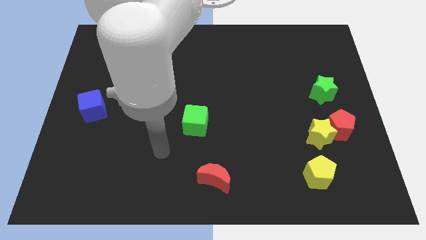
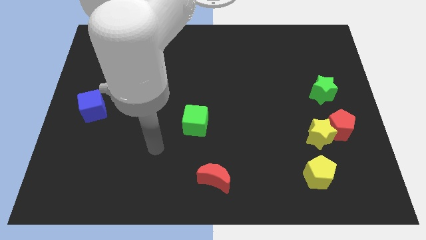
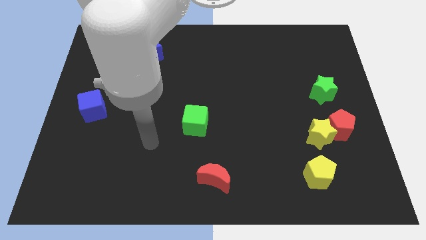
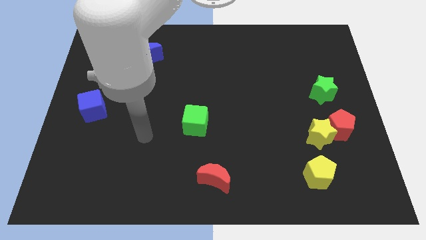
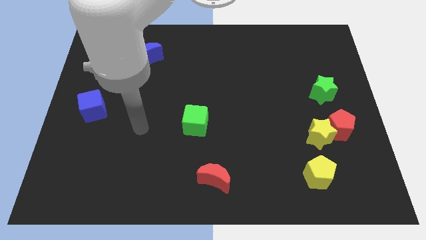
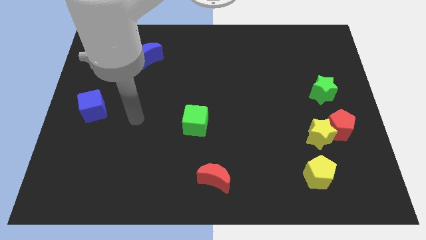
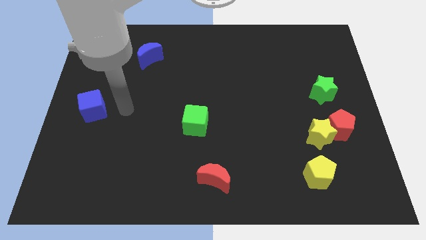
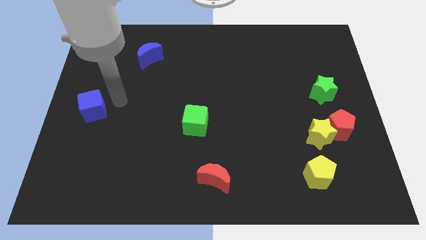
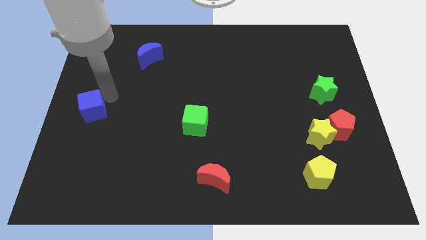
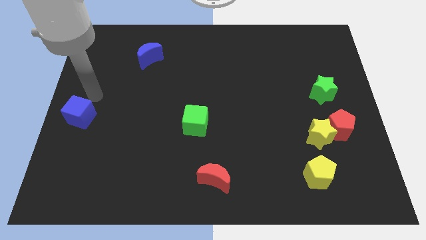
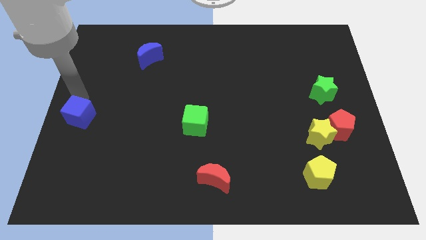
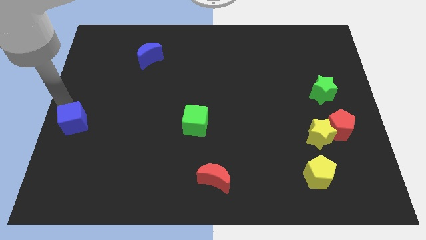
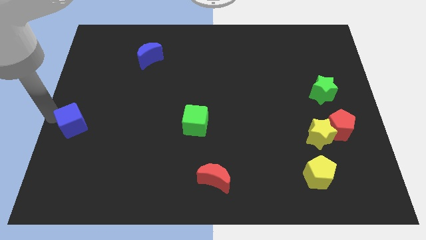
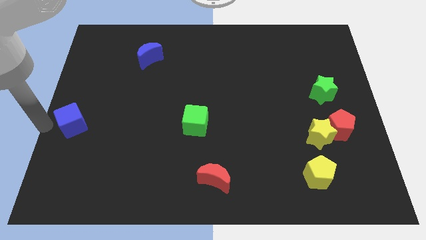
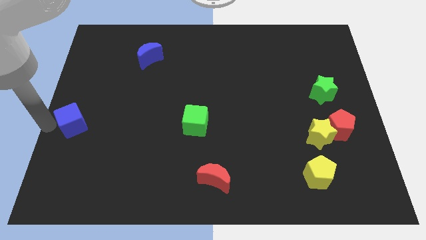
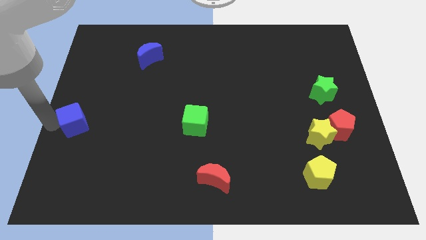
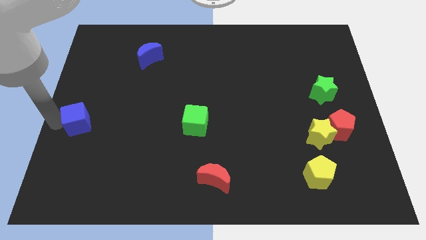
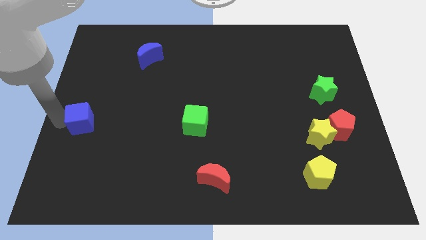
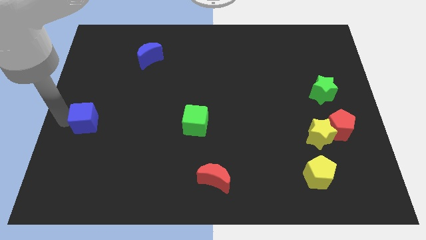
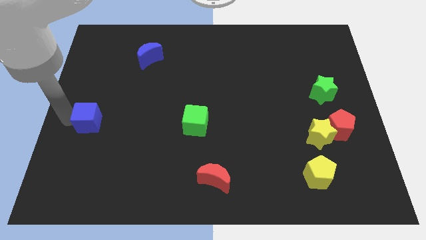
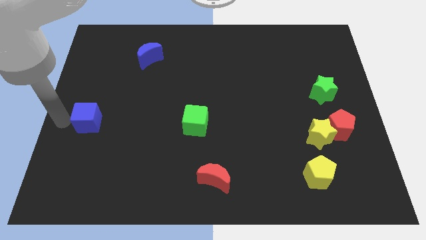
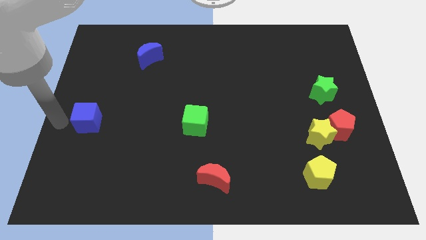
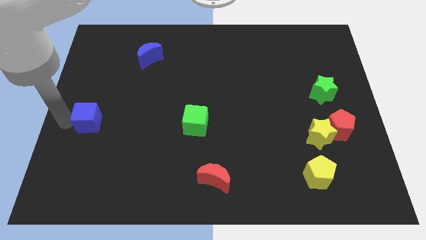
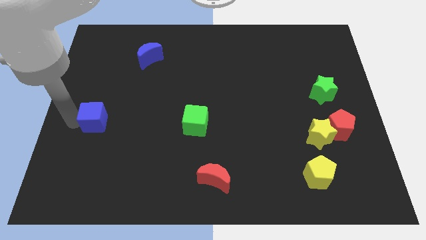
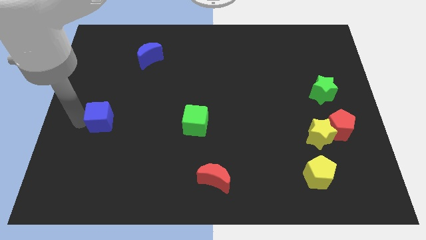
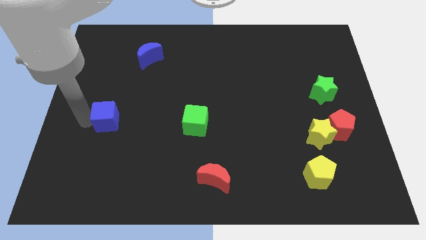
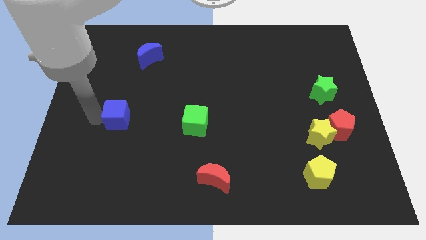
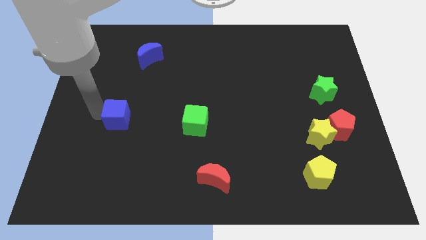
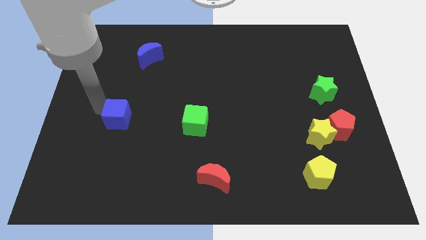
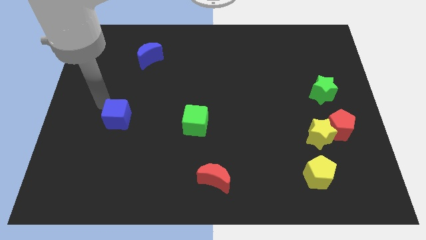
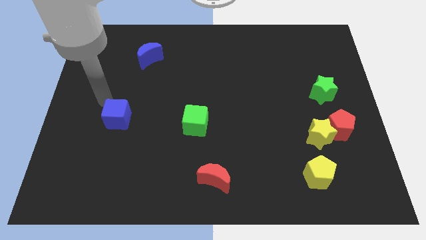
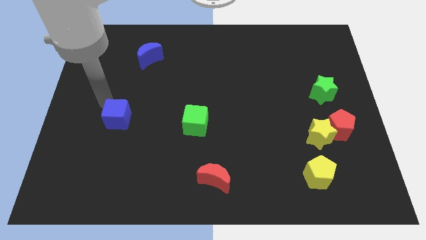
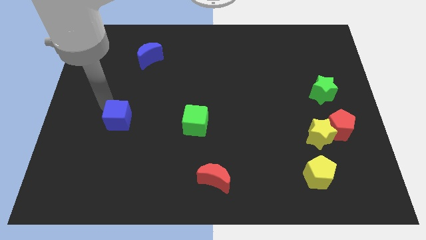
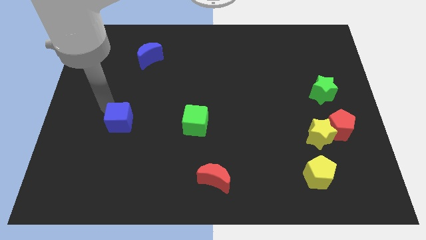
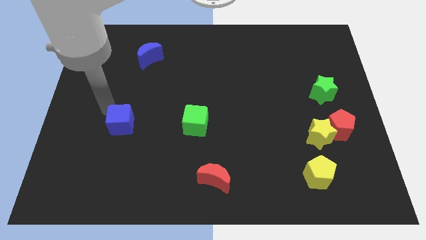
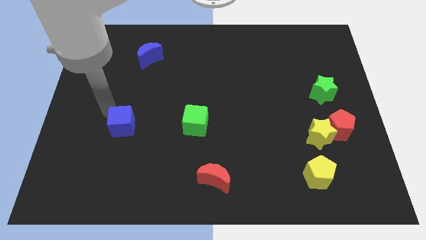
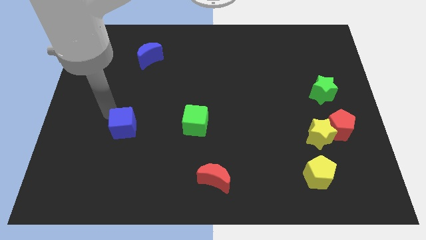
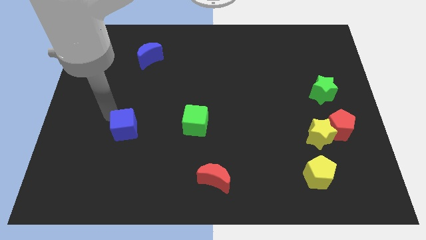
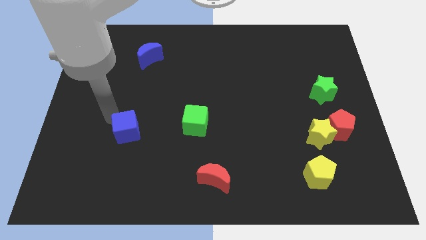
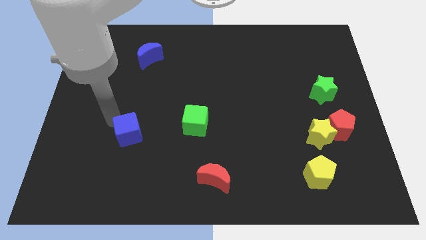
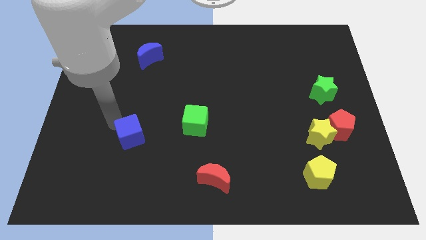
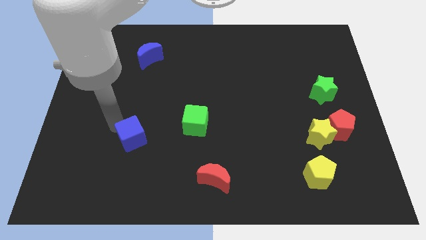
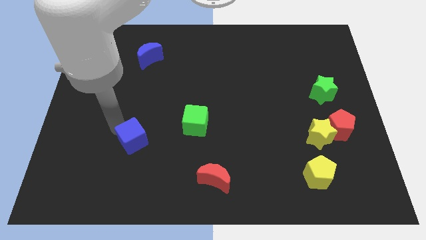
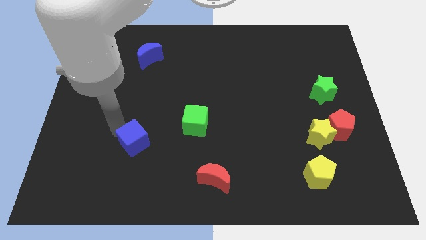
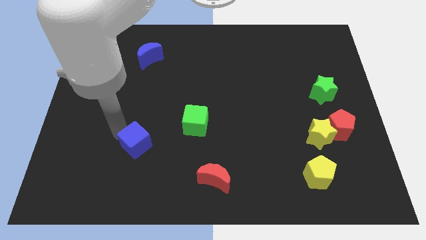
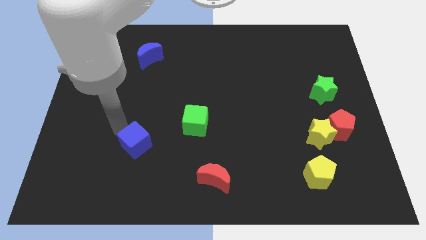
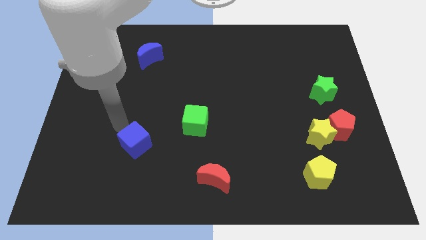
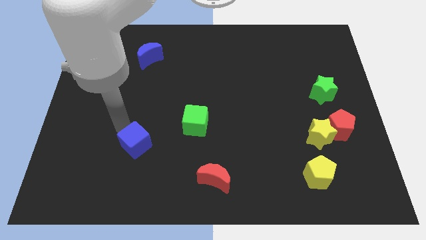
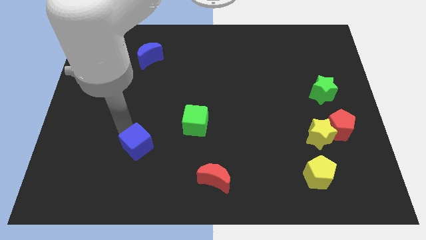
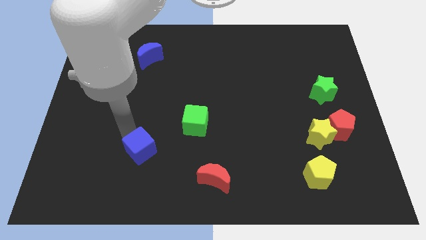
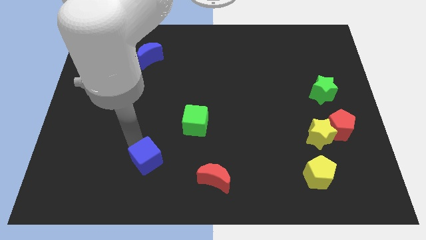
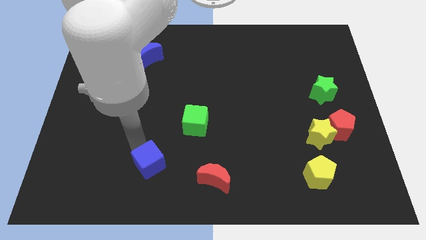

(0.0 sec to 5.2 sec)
put the blue cube to the left side of the red moon

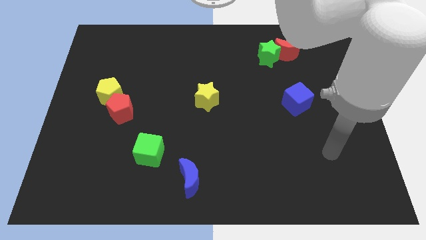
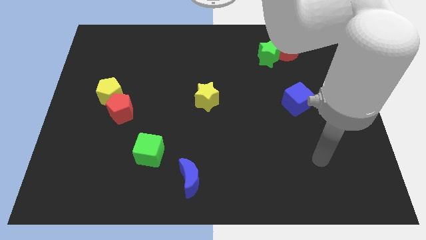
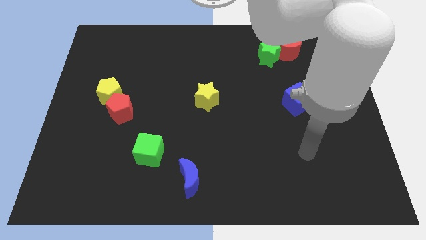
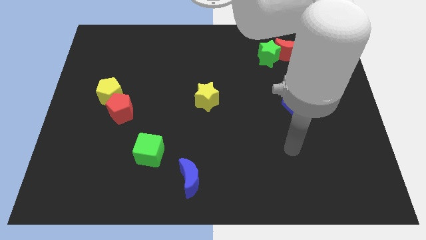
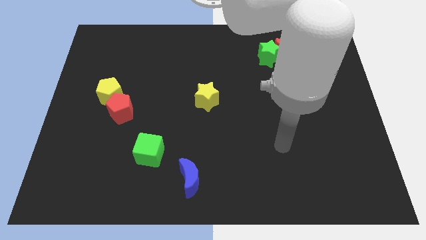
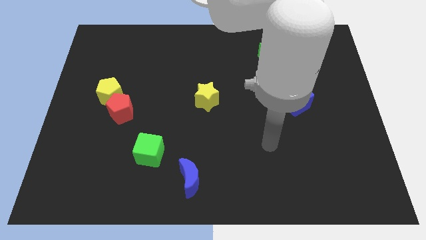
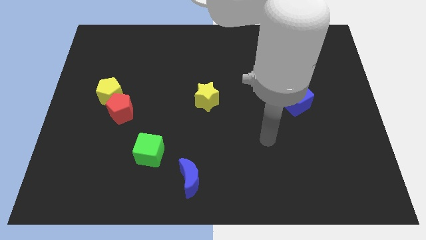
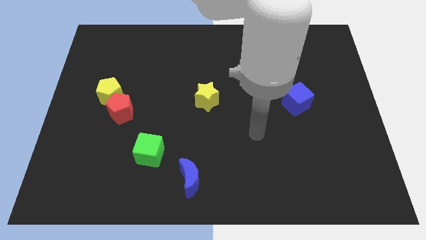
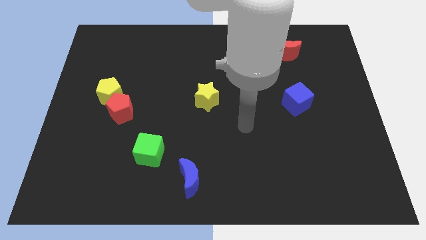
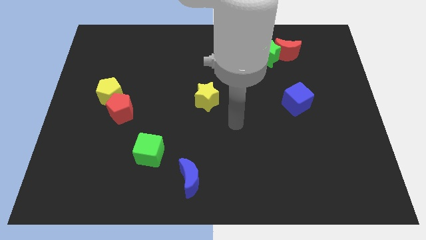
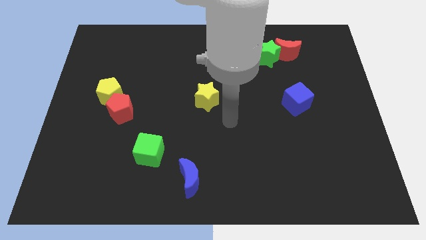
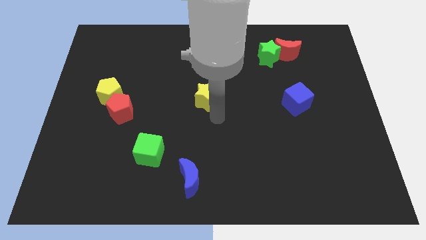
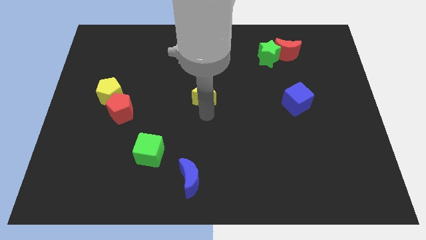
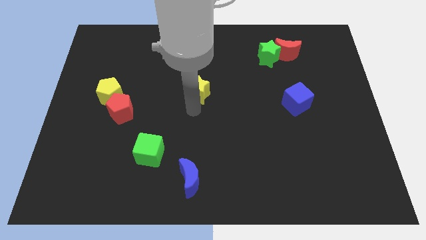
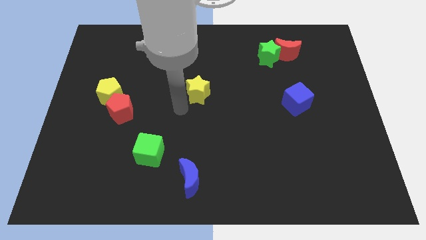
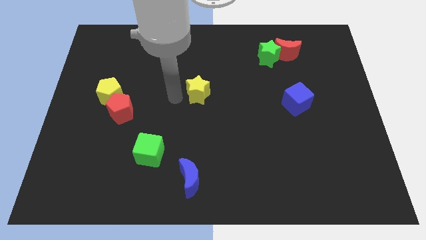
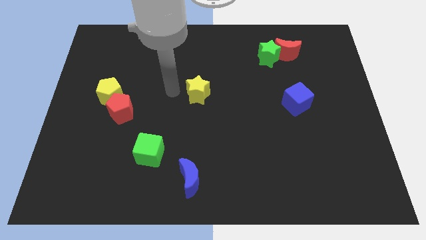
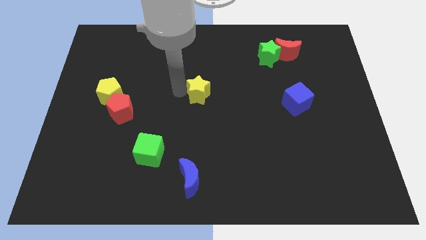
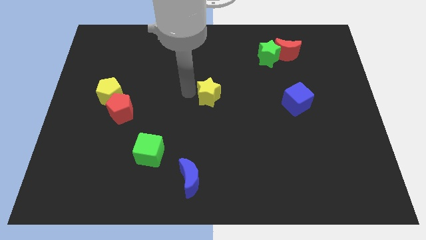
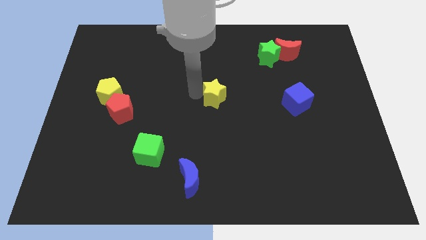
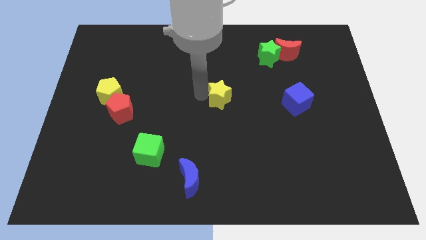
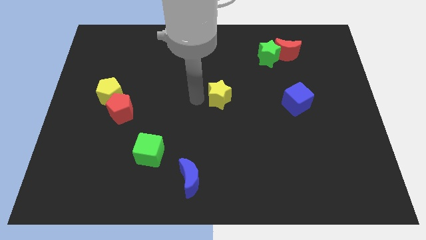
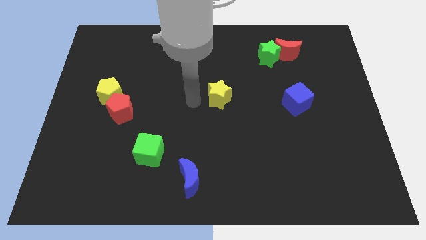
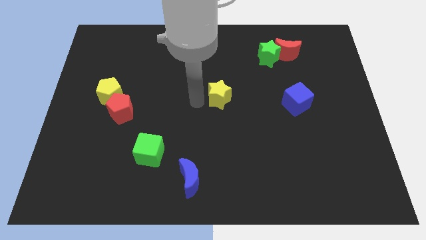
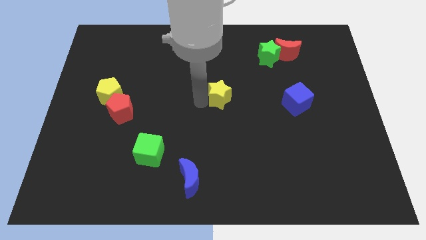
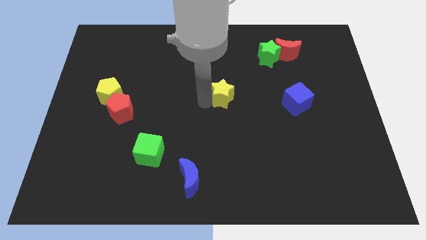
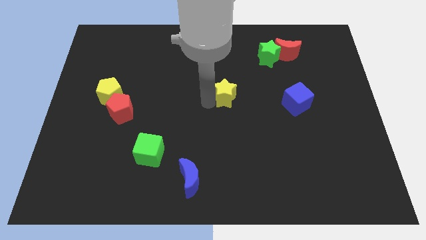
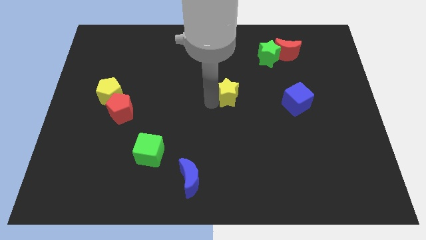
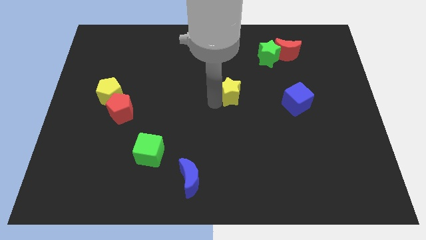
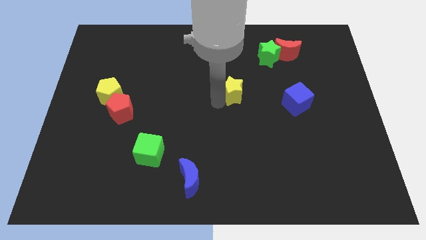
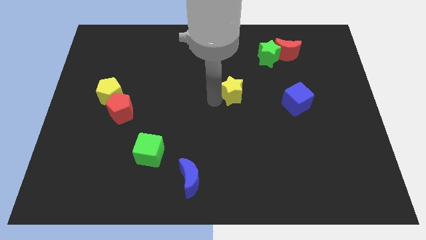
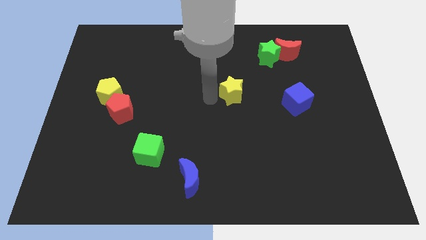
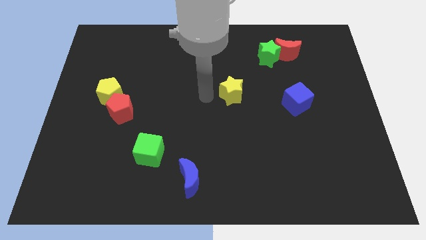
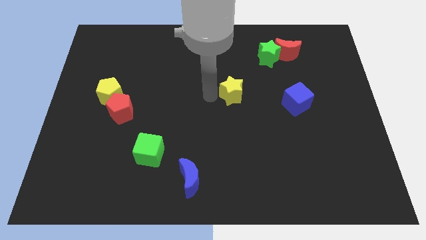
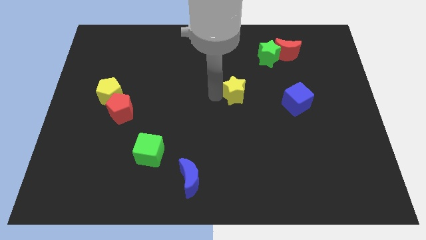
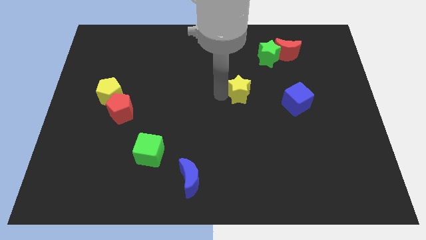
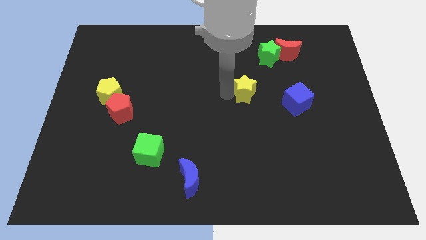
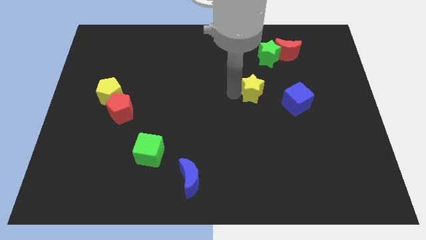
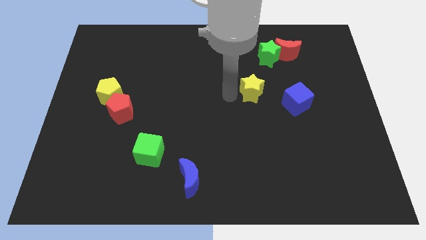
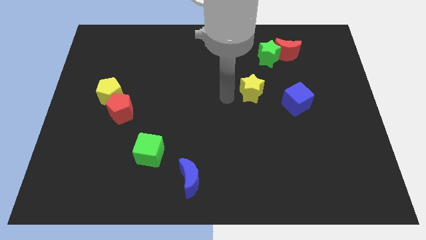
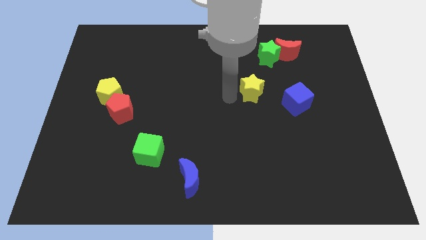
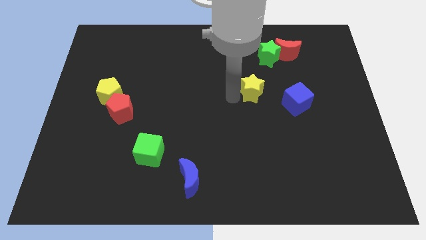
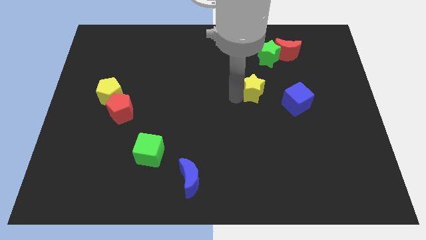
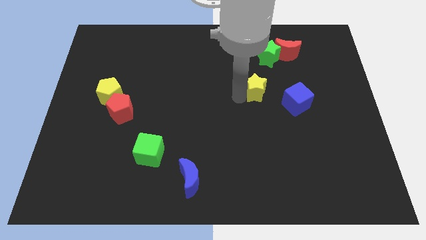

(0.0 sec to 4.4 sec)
push the yellow star to the top left of the blue cube
